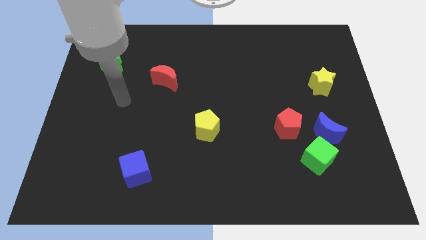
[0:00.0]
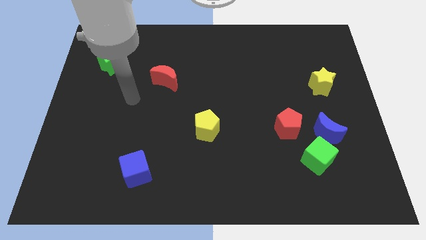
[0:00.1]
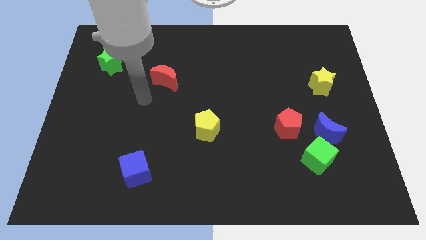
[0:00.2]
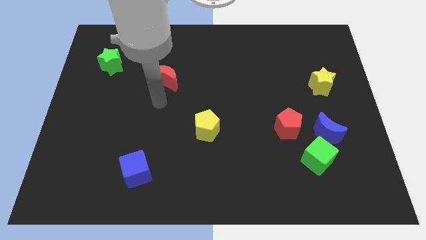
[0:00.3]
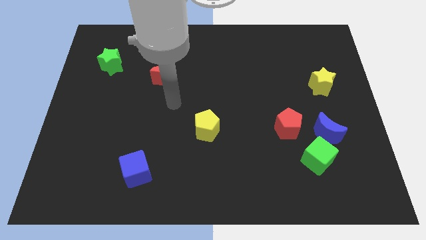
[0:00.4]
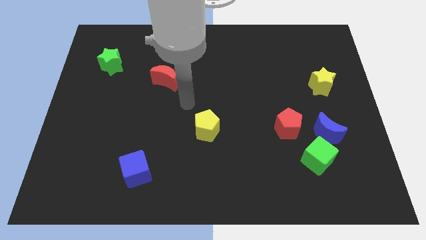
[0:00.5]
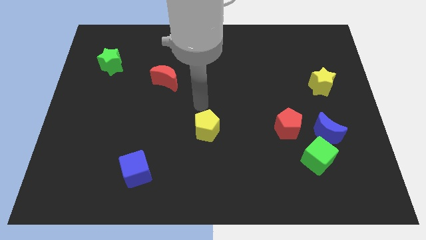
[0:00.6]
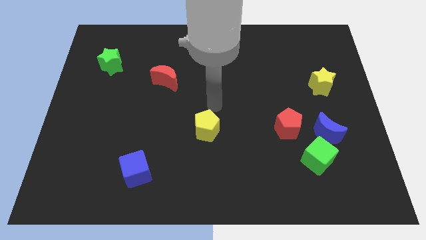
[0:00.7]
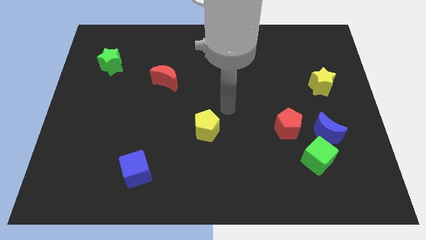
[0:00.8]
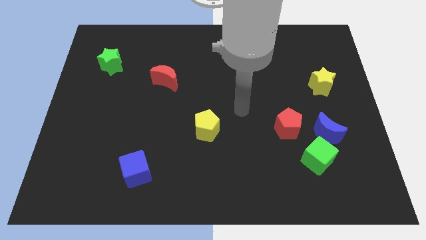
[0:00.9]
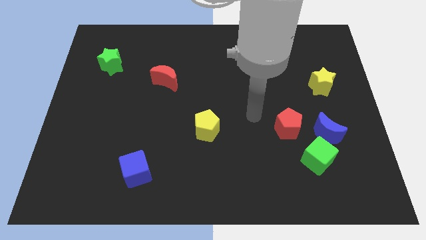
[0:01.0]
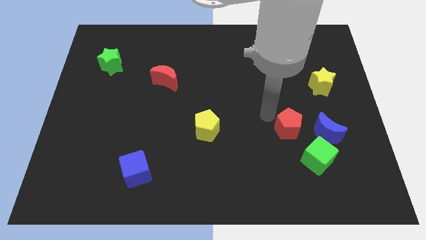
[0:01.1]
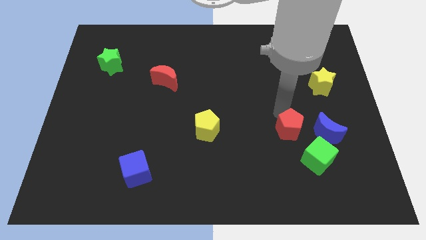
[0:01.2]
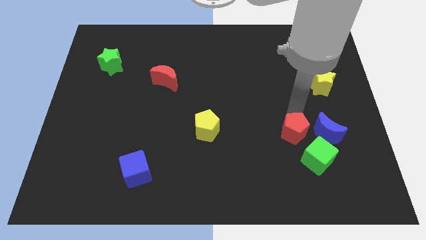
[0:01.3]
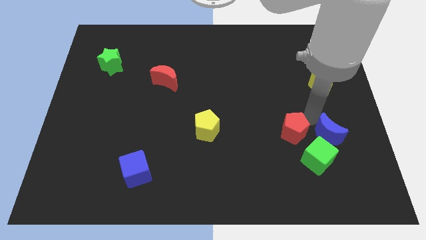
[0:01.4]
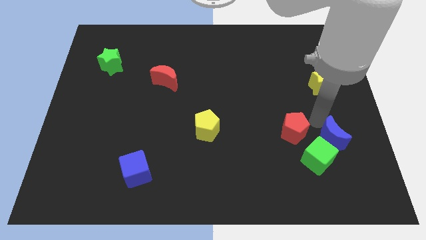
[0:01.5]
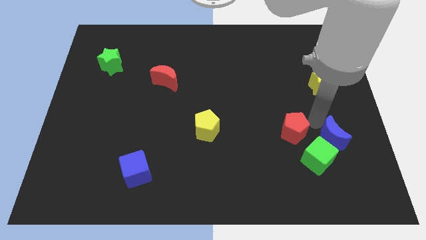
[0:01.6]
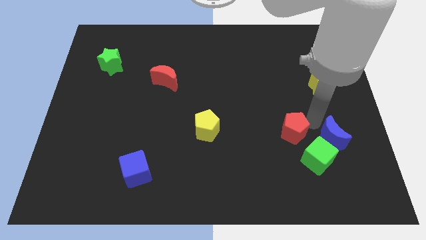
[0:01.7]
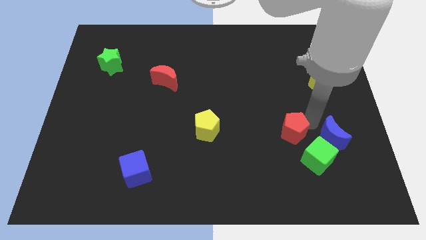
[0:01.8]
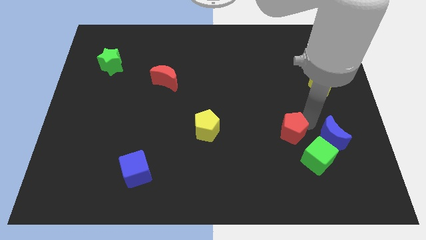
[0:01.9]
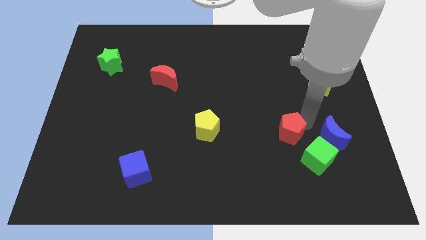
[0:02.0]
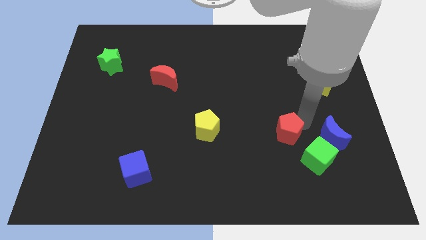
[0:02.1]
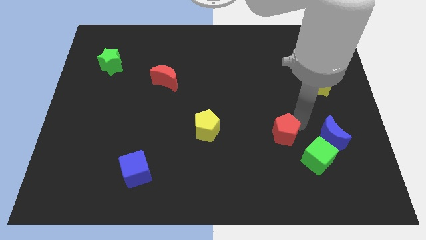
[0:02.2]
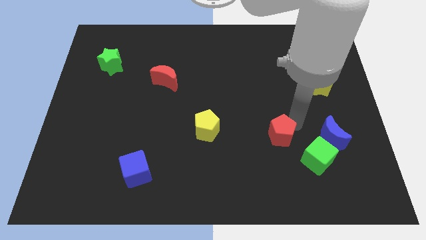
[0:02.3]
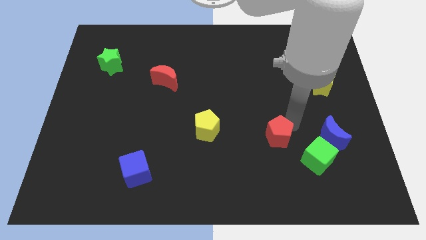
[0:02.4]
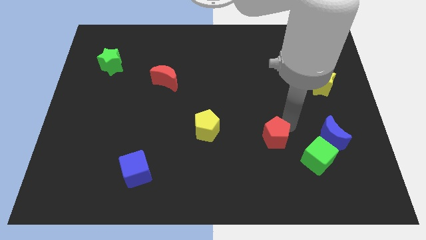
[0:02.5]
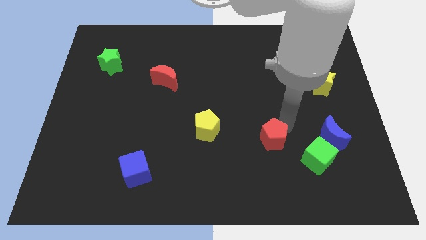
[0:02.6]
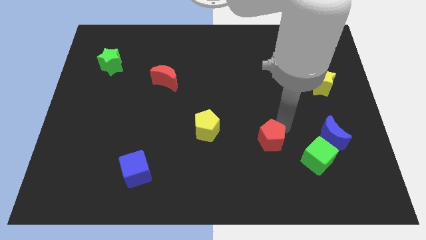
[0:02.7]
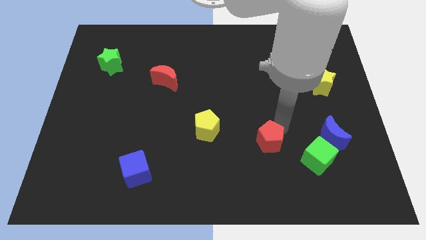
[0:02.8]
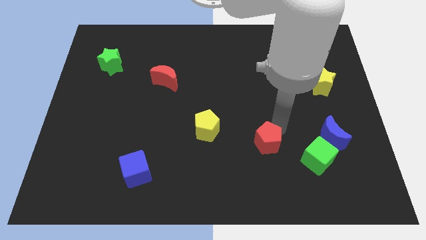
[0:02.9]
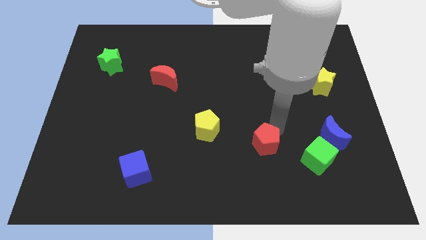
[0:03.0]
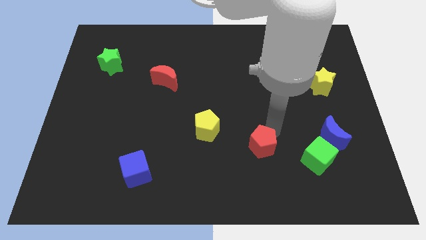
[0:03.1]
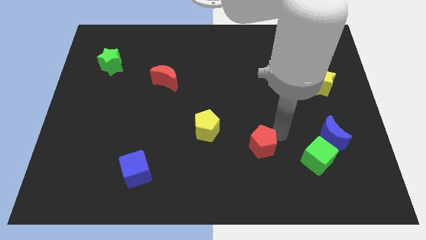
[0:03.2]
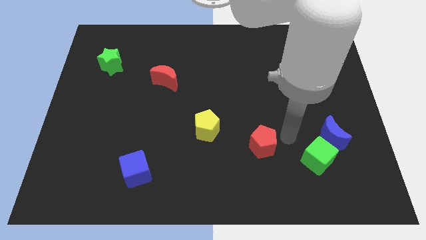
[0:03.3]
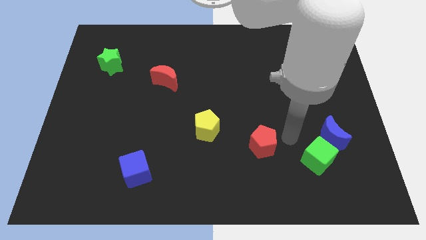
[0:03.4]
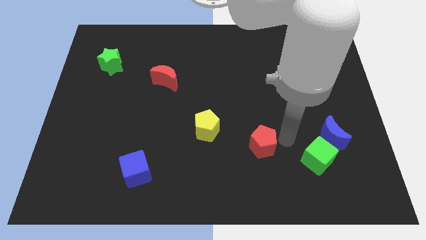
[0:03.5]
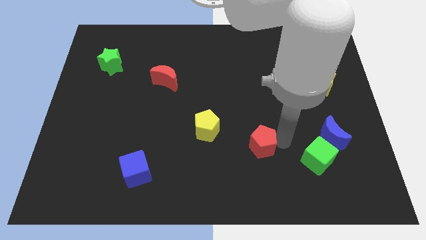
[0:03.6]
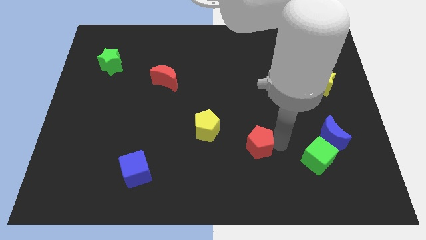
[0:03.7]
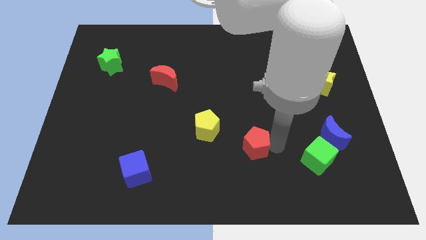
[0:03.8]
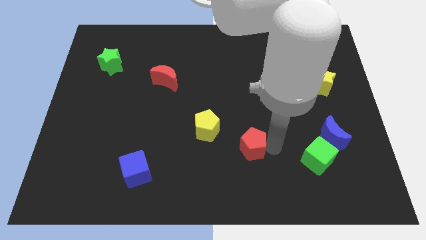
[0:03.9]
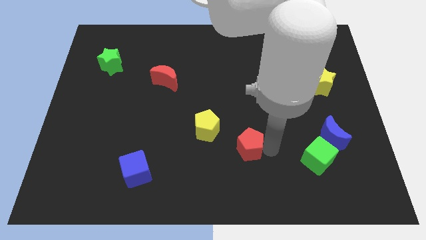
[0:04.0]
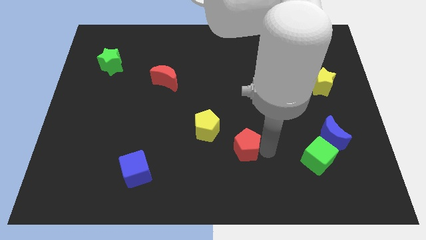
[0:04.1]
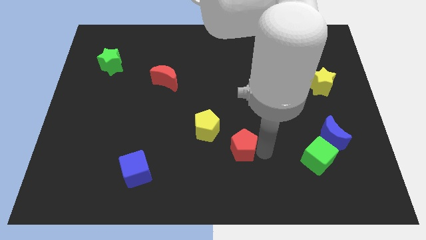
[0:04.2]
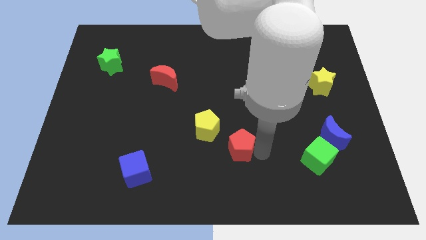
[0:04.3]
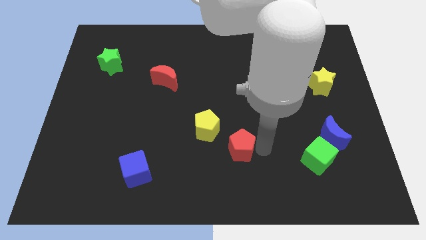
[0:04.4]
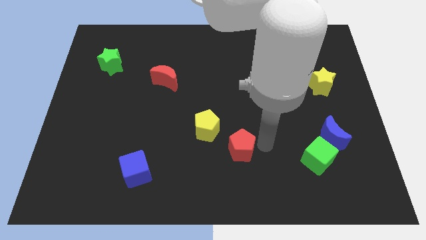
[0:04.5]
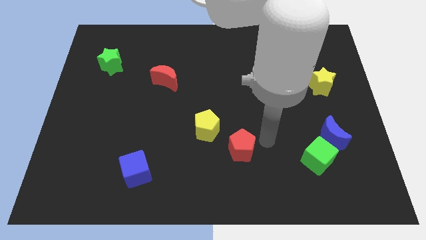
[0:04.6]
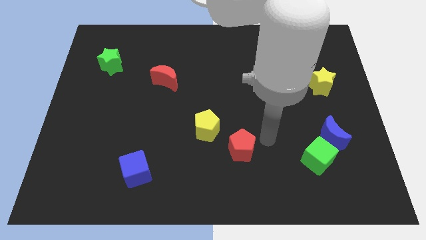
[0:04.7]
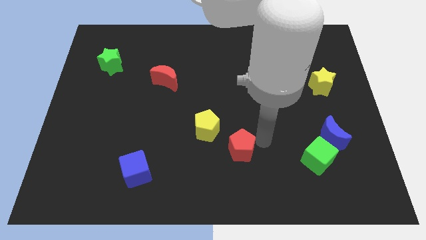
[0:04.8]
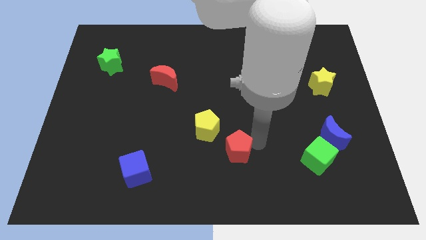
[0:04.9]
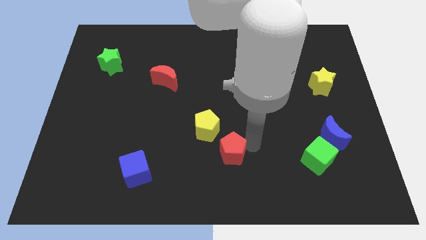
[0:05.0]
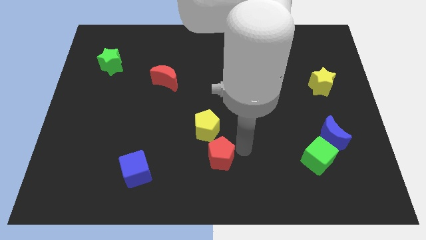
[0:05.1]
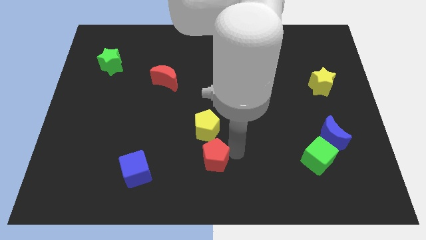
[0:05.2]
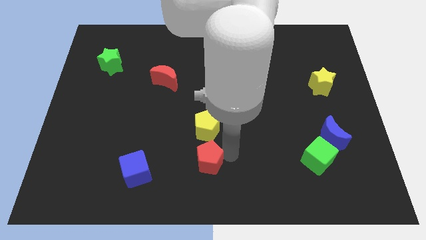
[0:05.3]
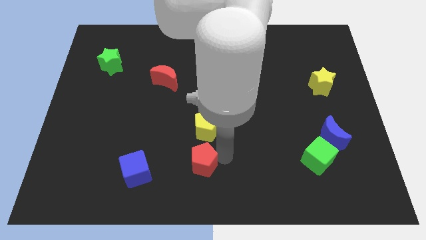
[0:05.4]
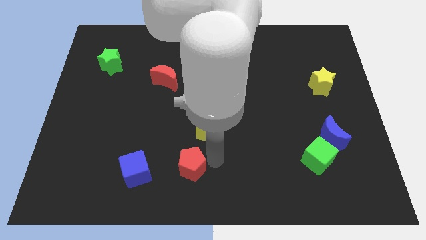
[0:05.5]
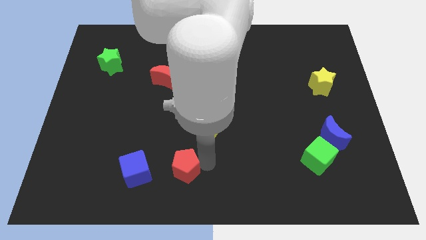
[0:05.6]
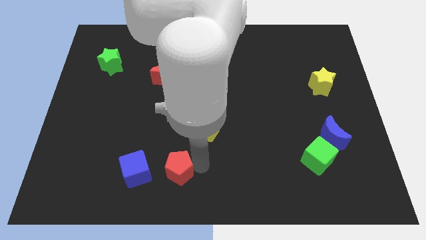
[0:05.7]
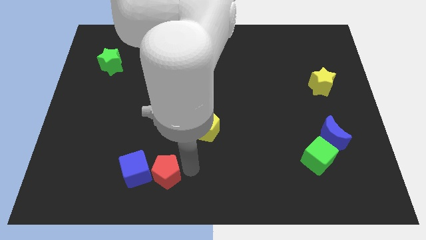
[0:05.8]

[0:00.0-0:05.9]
put the red pentagon to the blue cube

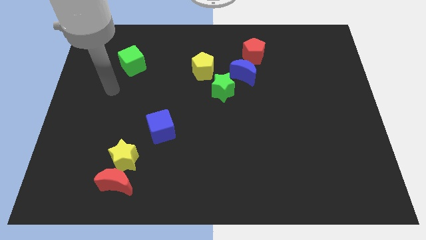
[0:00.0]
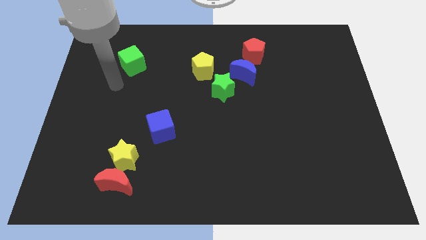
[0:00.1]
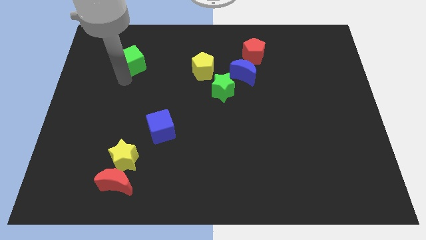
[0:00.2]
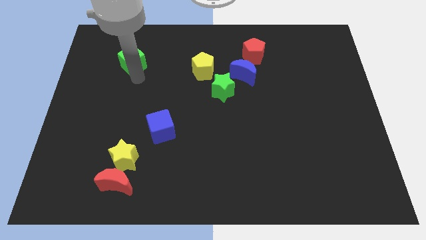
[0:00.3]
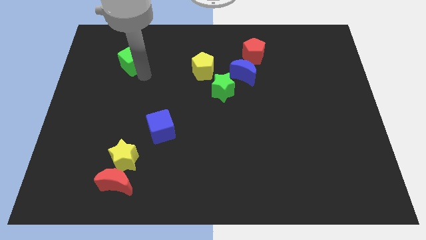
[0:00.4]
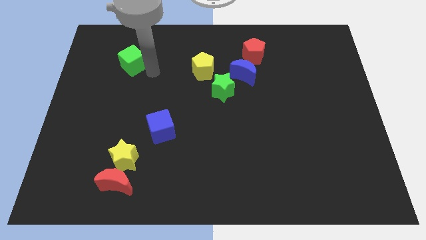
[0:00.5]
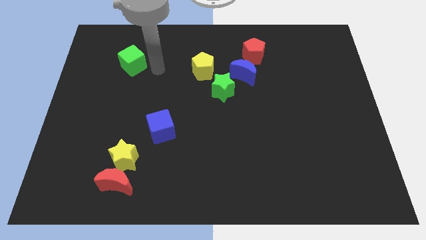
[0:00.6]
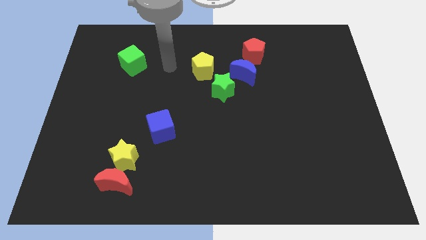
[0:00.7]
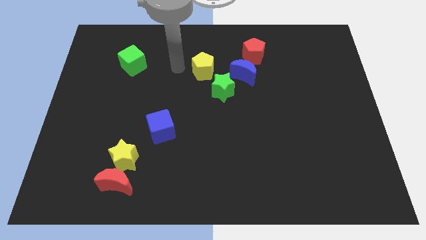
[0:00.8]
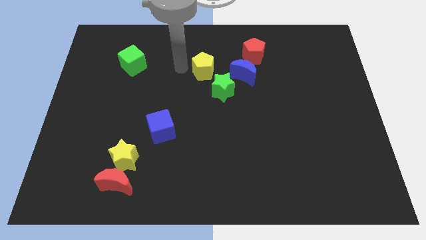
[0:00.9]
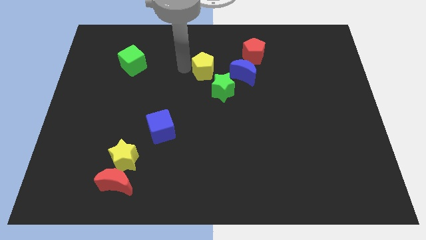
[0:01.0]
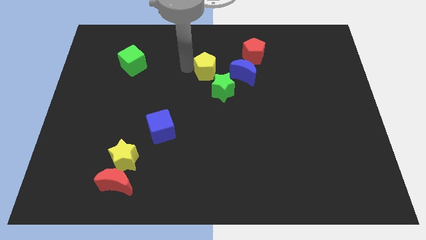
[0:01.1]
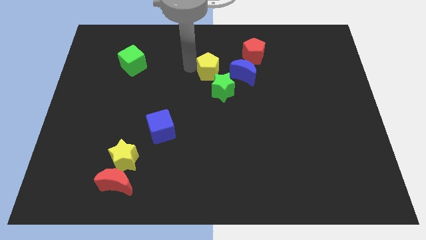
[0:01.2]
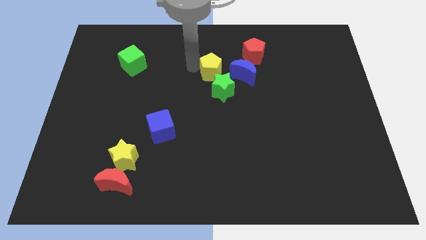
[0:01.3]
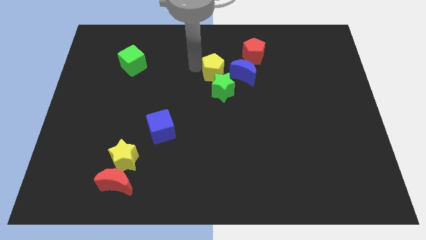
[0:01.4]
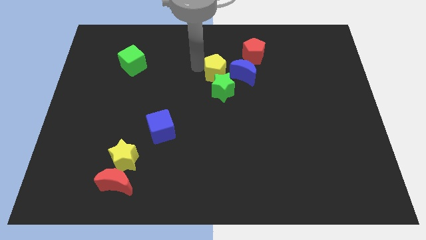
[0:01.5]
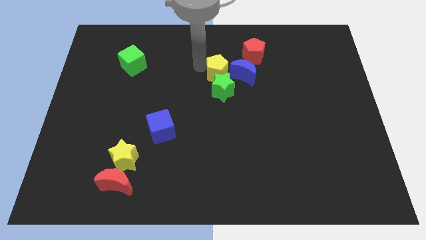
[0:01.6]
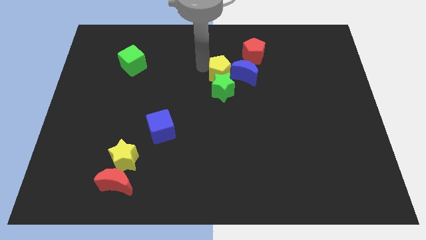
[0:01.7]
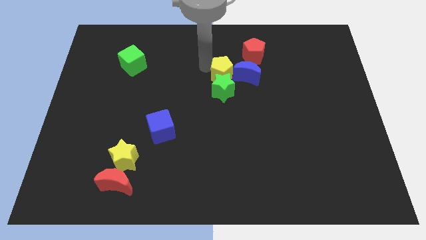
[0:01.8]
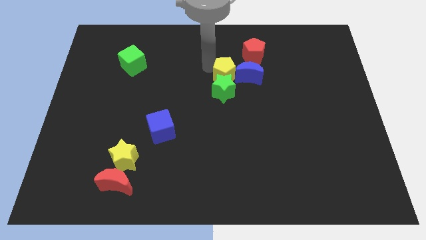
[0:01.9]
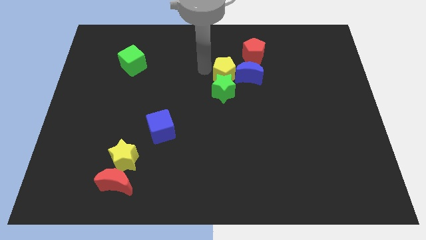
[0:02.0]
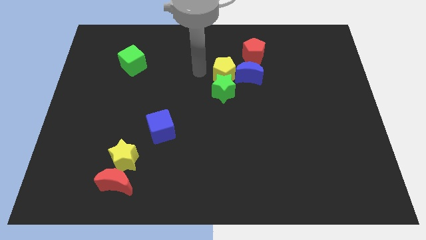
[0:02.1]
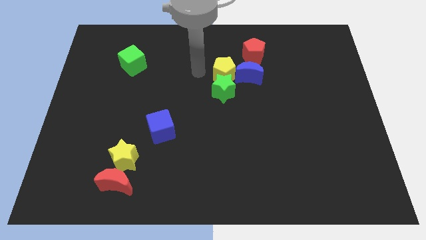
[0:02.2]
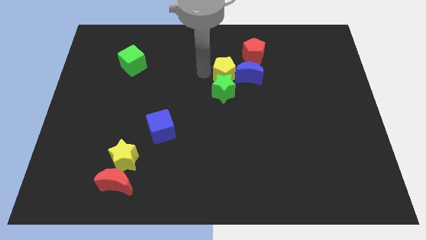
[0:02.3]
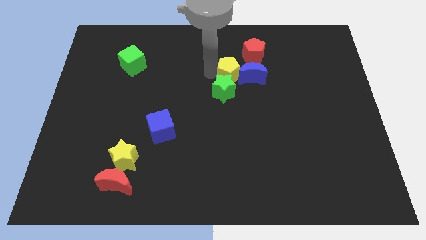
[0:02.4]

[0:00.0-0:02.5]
move the yellow pentagon towards the blue moon
